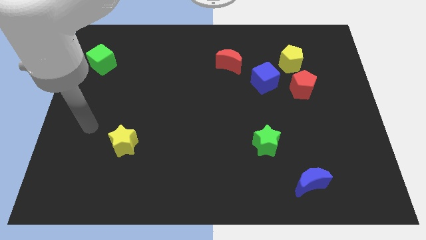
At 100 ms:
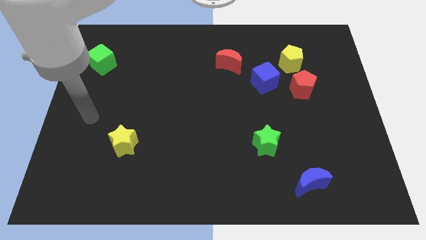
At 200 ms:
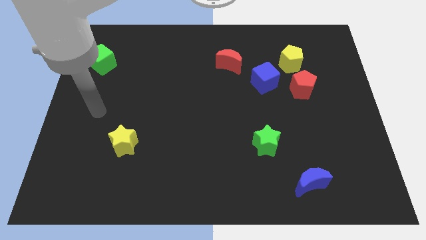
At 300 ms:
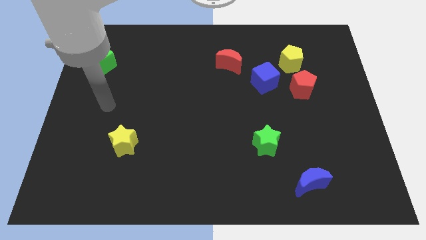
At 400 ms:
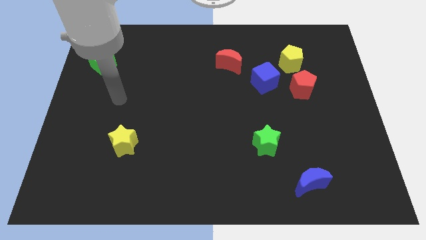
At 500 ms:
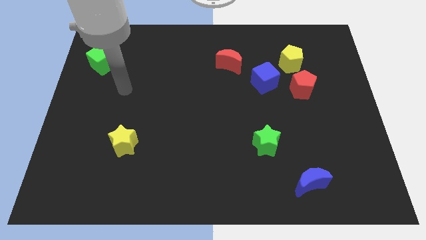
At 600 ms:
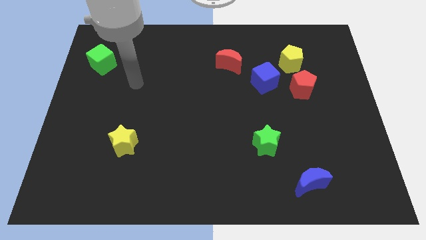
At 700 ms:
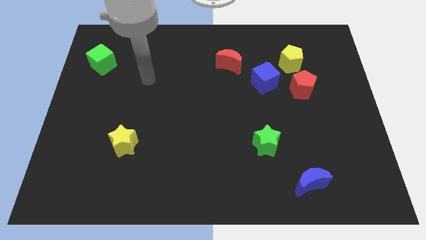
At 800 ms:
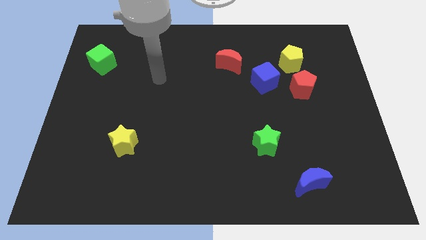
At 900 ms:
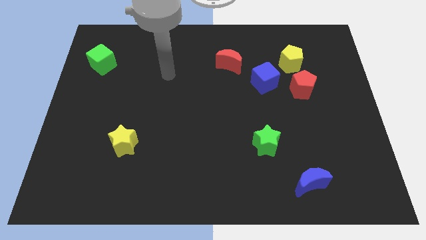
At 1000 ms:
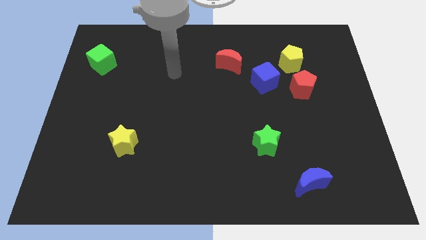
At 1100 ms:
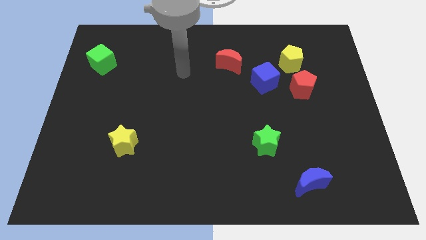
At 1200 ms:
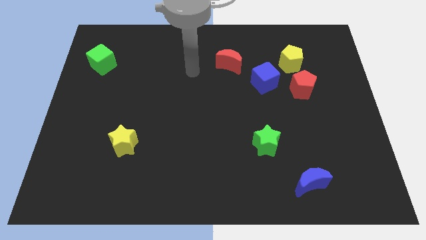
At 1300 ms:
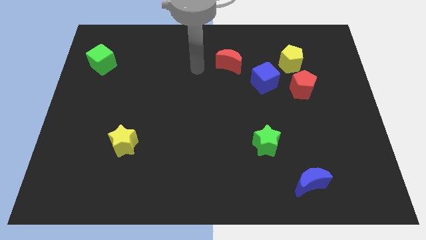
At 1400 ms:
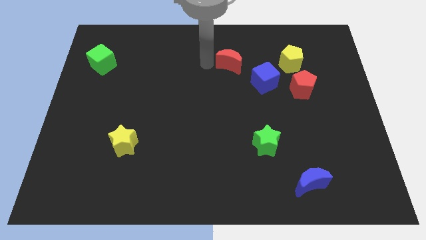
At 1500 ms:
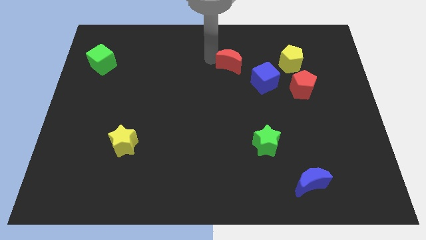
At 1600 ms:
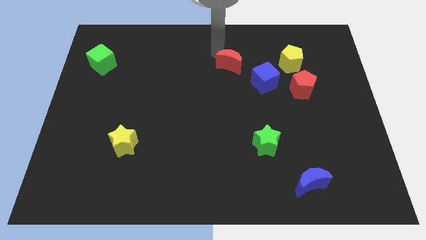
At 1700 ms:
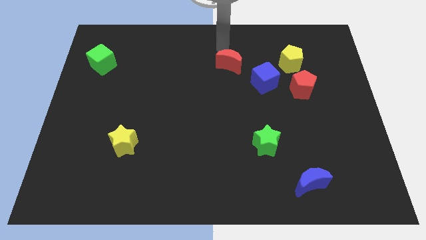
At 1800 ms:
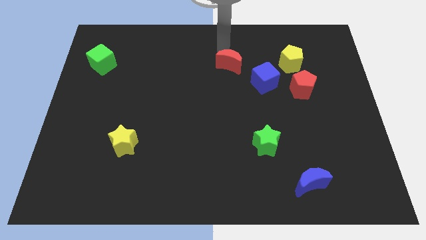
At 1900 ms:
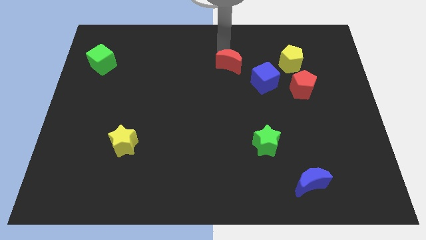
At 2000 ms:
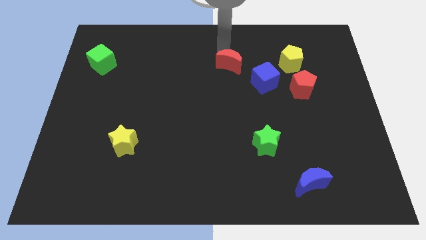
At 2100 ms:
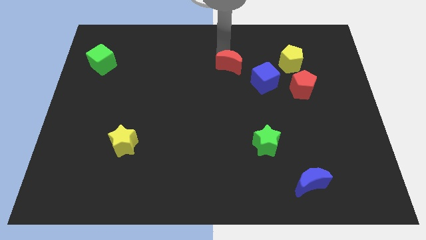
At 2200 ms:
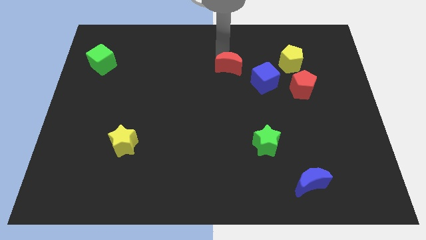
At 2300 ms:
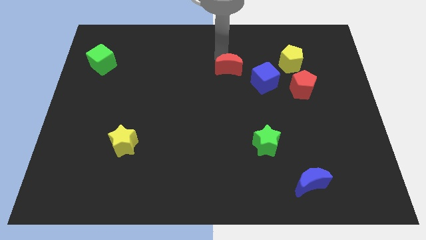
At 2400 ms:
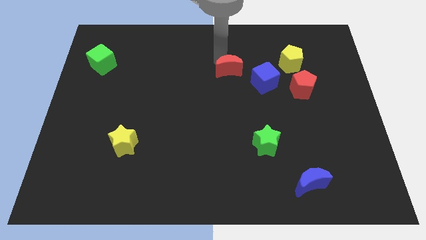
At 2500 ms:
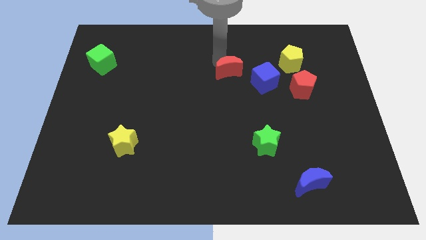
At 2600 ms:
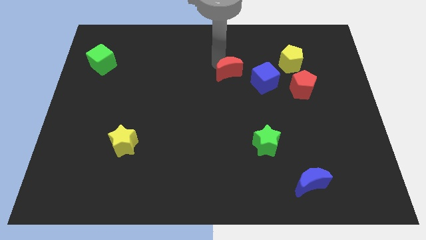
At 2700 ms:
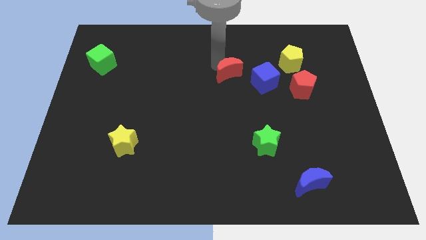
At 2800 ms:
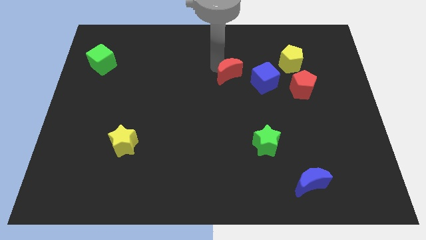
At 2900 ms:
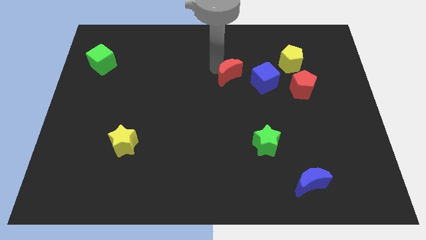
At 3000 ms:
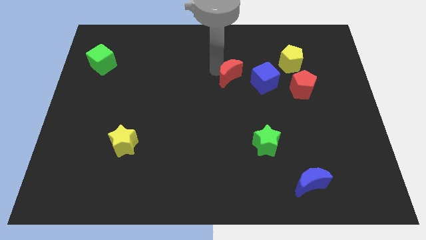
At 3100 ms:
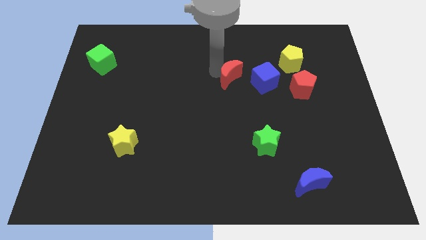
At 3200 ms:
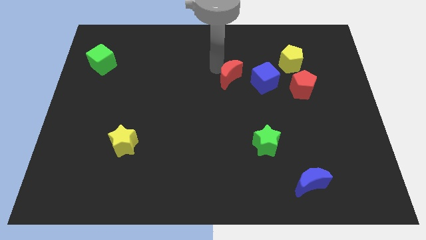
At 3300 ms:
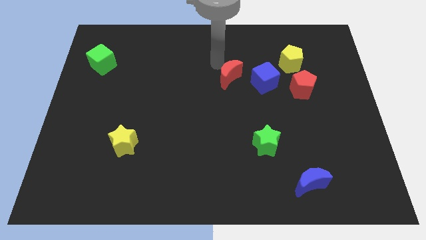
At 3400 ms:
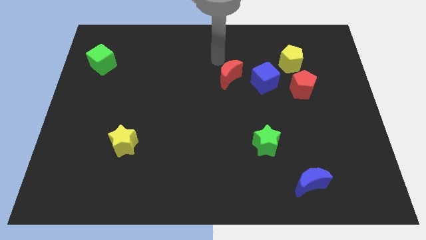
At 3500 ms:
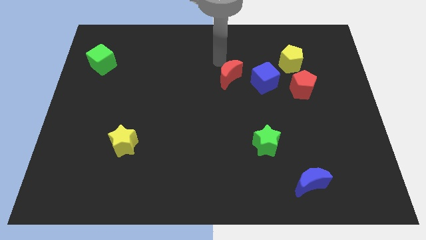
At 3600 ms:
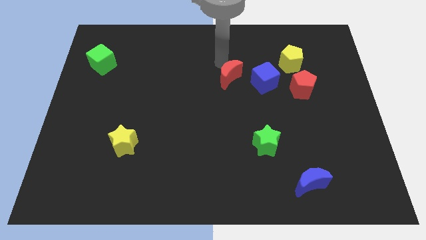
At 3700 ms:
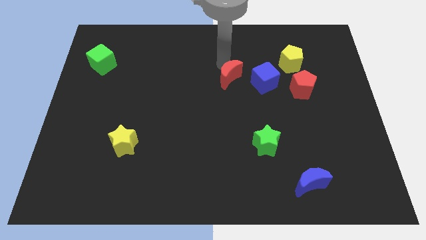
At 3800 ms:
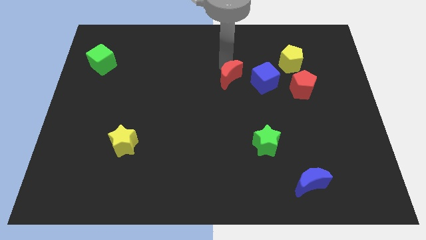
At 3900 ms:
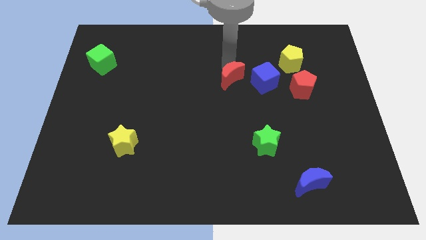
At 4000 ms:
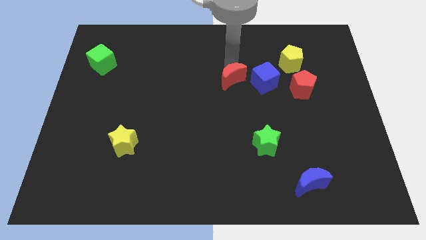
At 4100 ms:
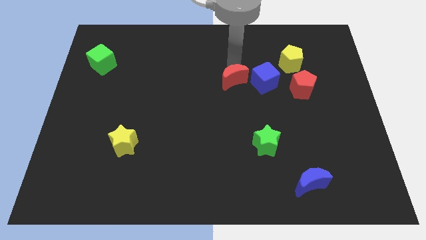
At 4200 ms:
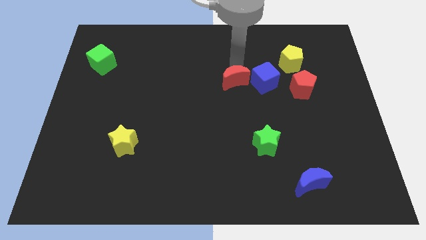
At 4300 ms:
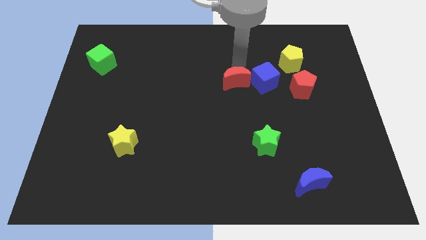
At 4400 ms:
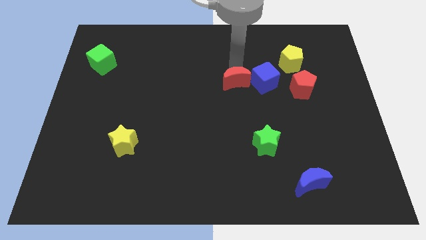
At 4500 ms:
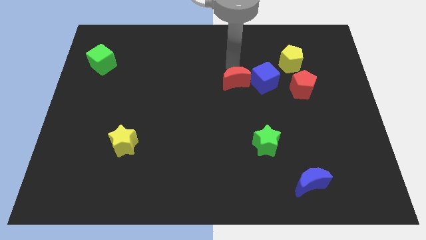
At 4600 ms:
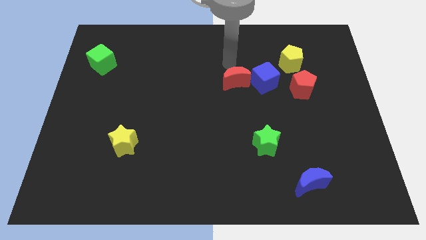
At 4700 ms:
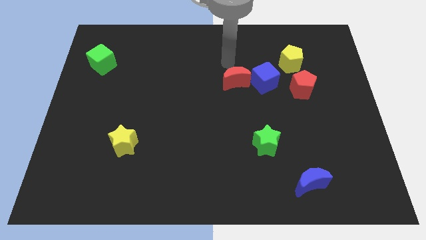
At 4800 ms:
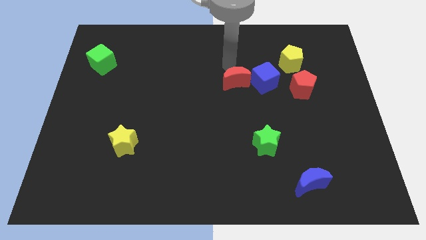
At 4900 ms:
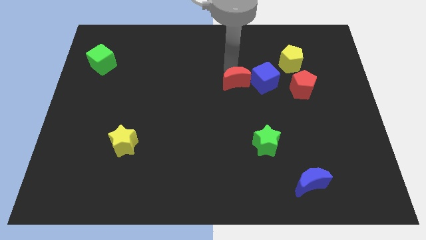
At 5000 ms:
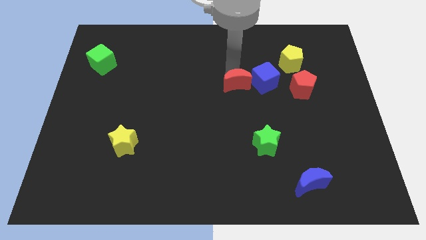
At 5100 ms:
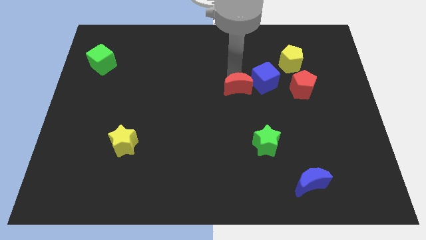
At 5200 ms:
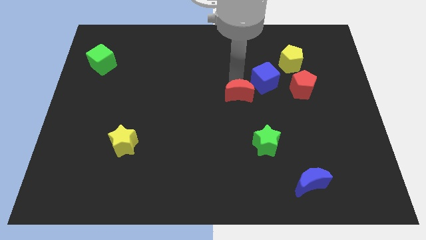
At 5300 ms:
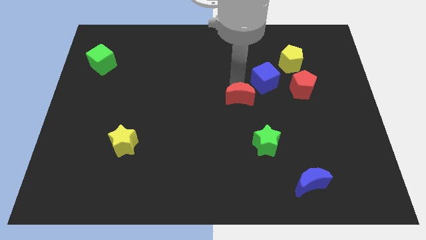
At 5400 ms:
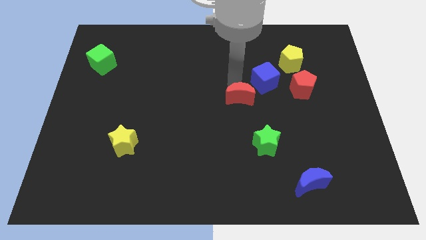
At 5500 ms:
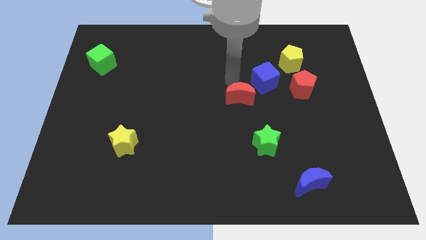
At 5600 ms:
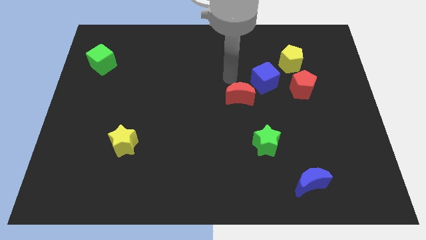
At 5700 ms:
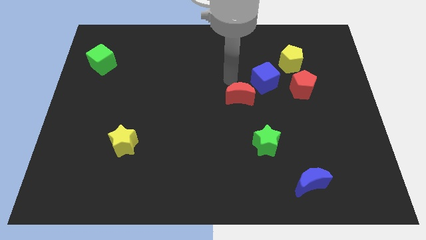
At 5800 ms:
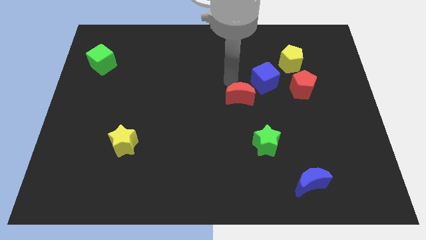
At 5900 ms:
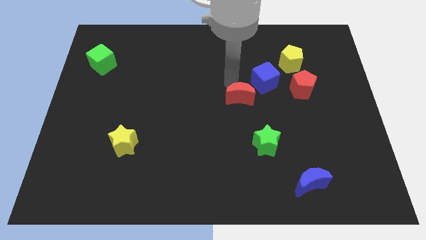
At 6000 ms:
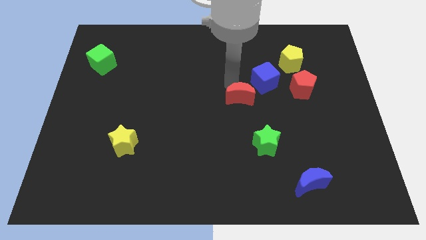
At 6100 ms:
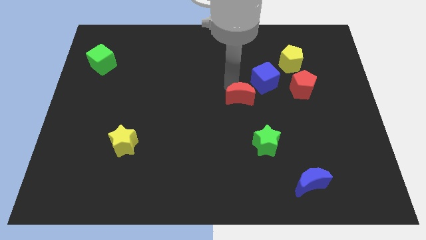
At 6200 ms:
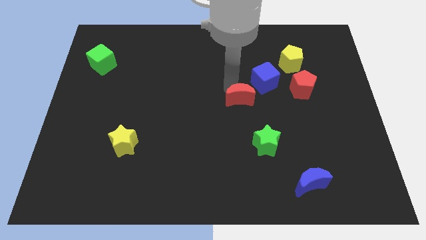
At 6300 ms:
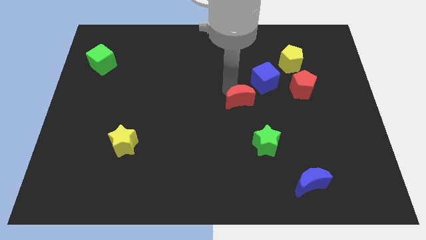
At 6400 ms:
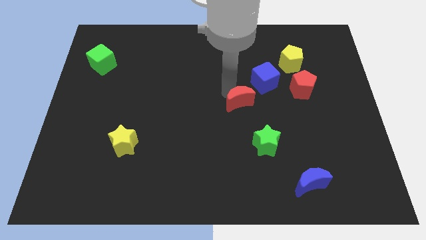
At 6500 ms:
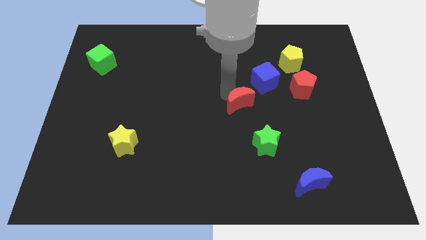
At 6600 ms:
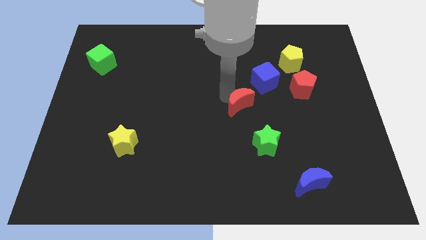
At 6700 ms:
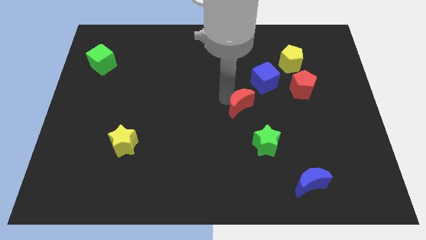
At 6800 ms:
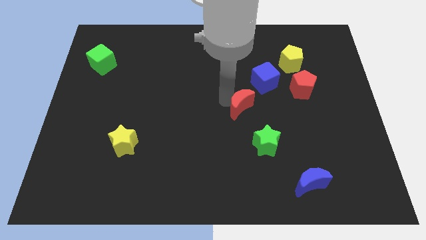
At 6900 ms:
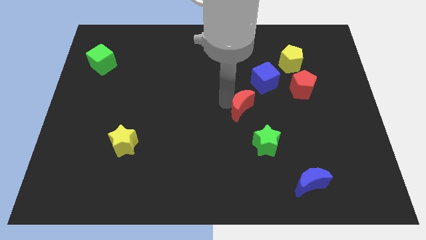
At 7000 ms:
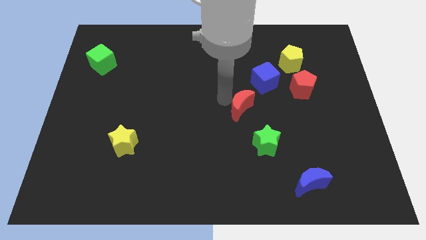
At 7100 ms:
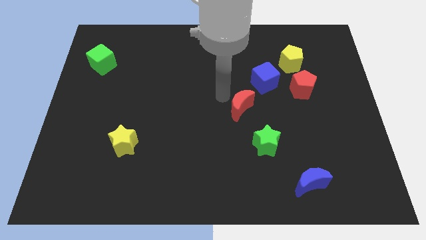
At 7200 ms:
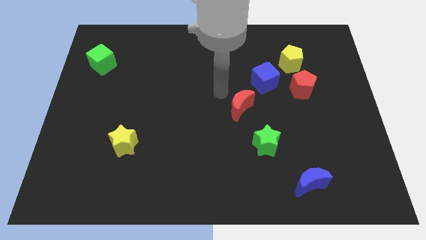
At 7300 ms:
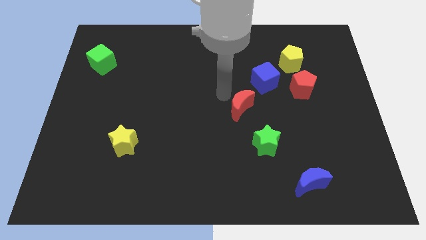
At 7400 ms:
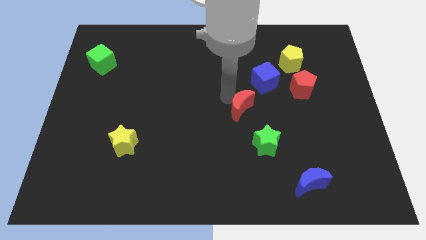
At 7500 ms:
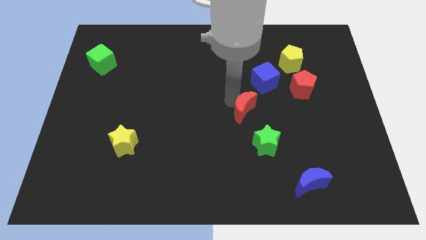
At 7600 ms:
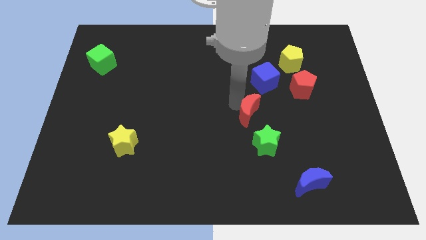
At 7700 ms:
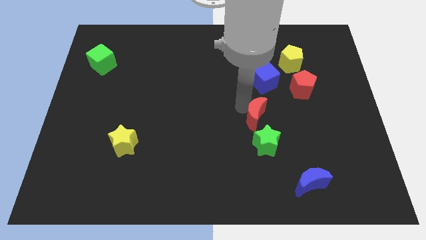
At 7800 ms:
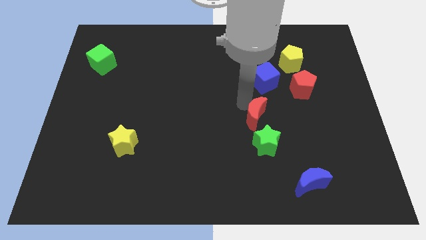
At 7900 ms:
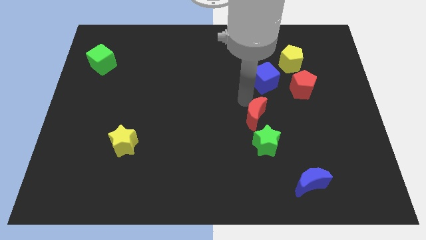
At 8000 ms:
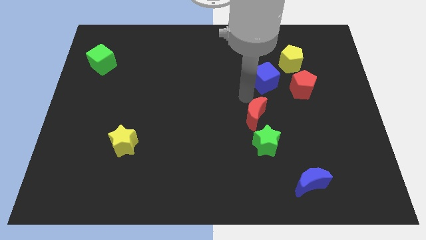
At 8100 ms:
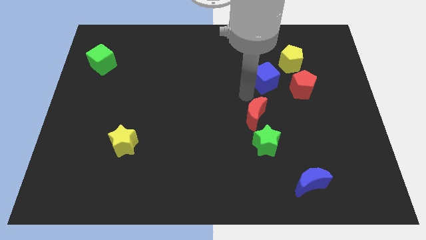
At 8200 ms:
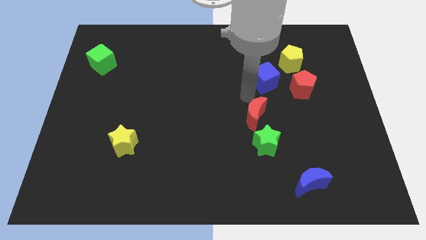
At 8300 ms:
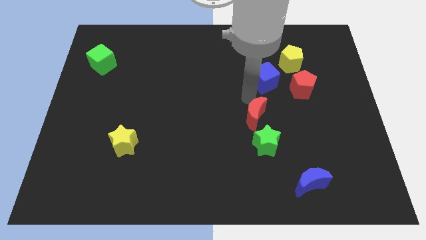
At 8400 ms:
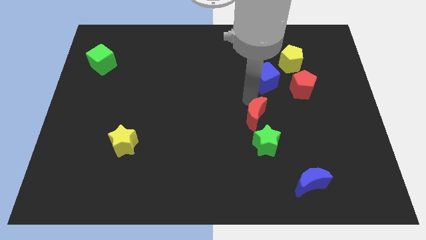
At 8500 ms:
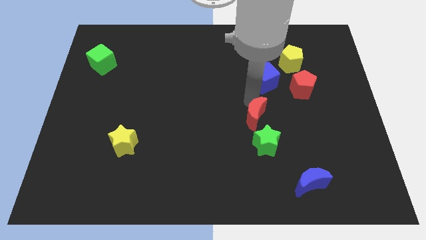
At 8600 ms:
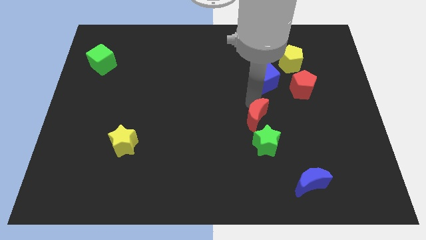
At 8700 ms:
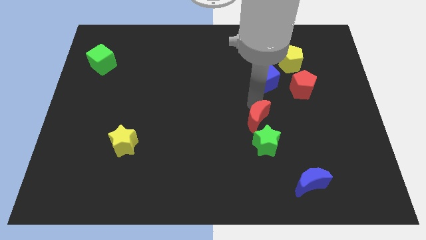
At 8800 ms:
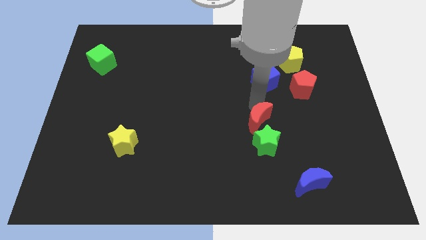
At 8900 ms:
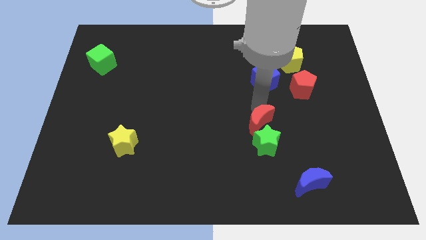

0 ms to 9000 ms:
put the red moon close to the green star
